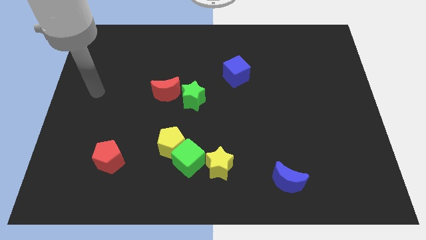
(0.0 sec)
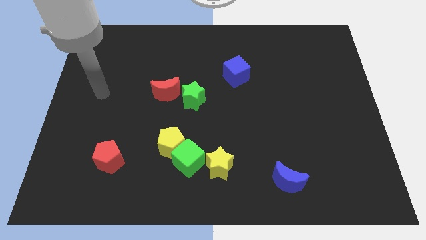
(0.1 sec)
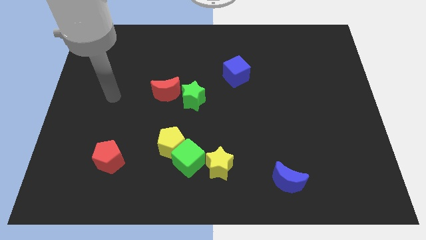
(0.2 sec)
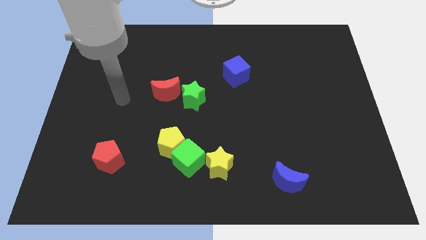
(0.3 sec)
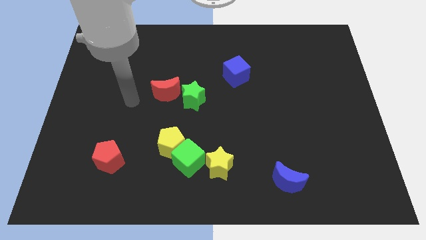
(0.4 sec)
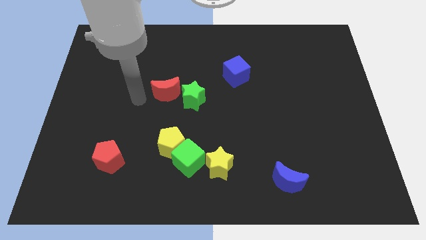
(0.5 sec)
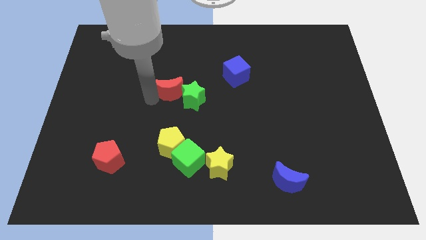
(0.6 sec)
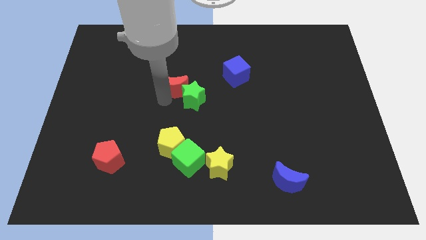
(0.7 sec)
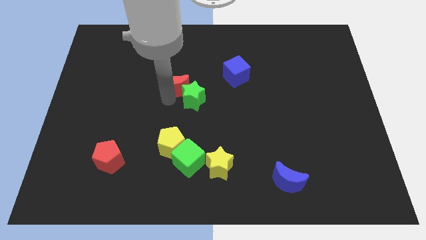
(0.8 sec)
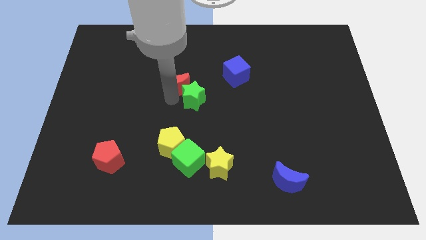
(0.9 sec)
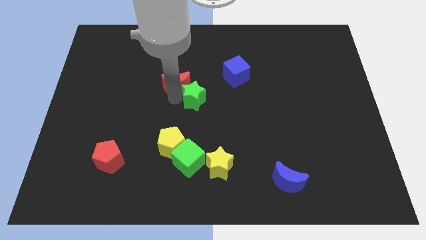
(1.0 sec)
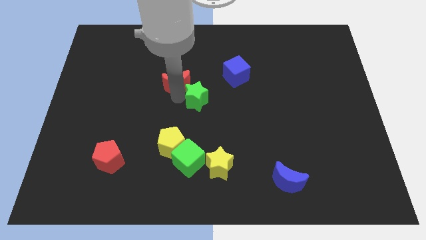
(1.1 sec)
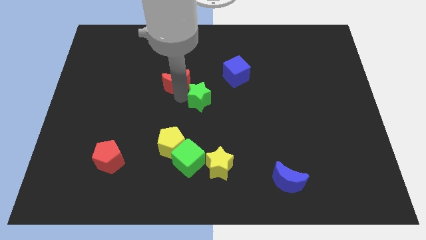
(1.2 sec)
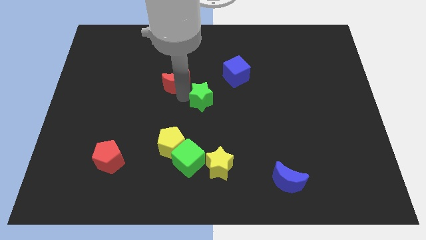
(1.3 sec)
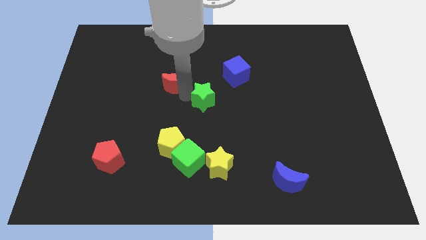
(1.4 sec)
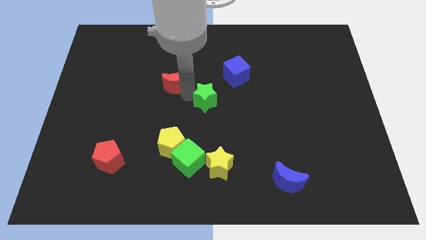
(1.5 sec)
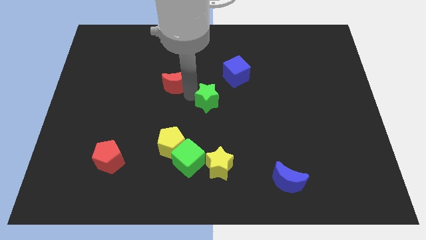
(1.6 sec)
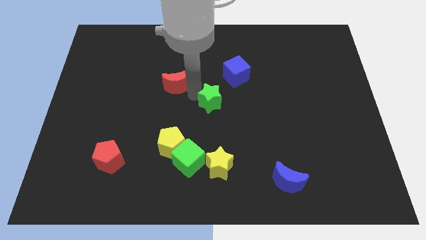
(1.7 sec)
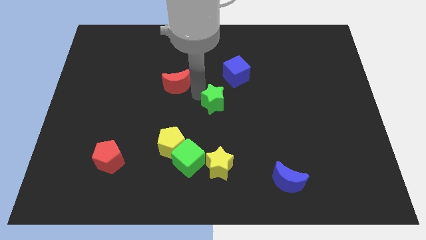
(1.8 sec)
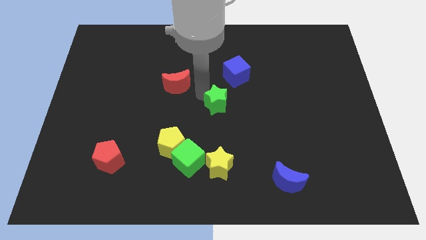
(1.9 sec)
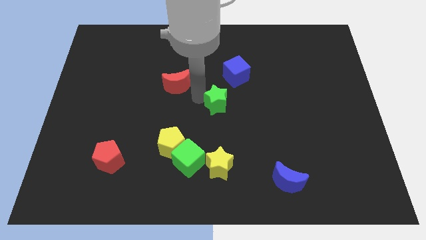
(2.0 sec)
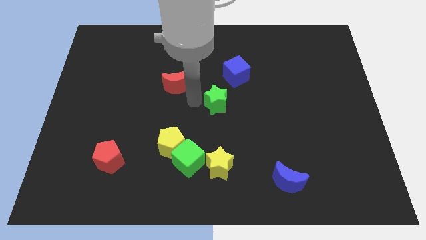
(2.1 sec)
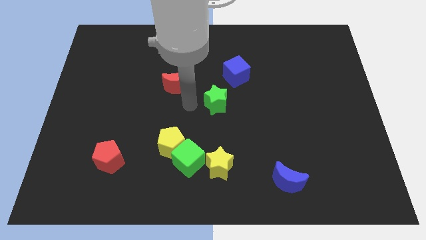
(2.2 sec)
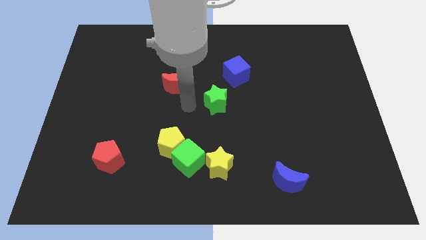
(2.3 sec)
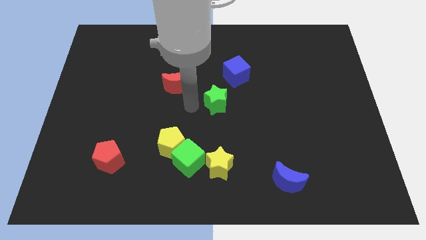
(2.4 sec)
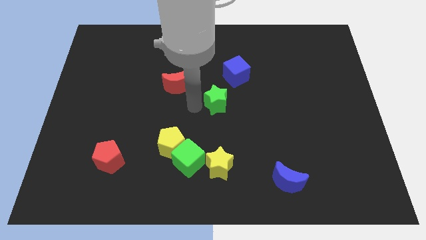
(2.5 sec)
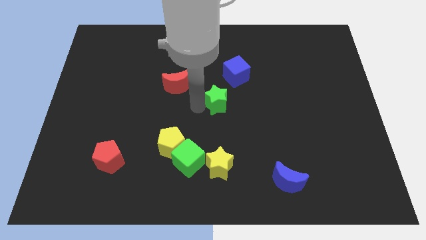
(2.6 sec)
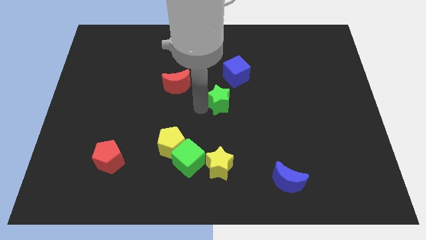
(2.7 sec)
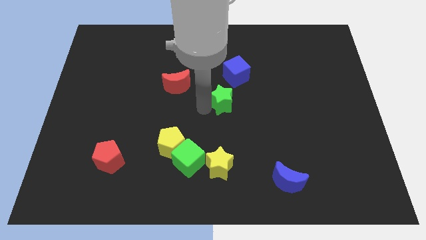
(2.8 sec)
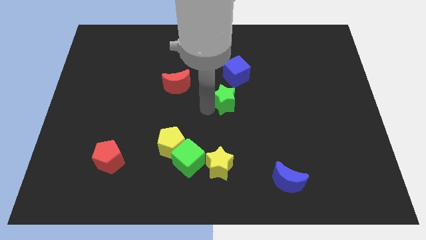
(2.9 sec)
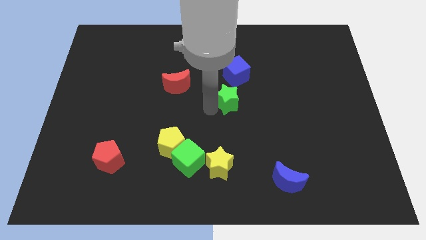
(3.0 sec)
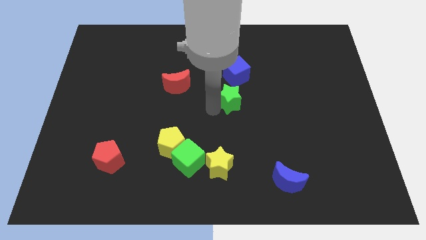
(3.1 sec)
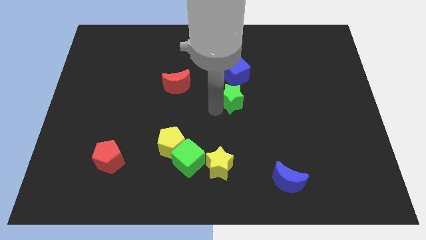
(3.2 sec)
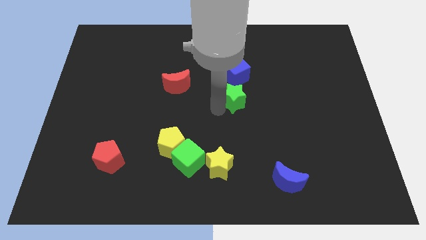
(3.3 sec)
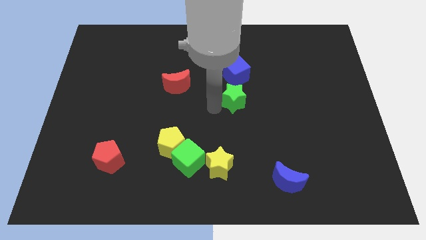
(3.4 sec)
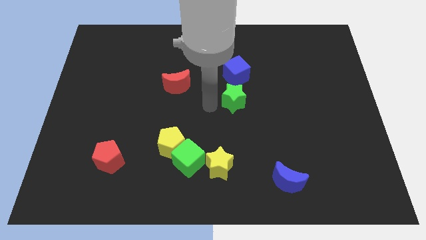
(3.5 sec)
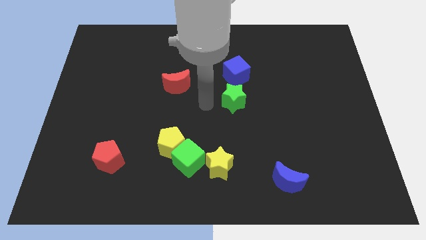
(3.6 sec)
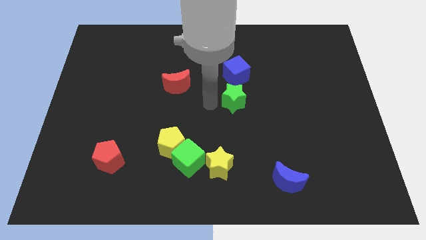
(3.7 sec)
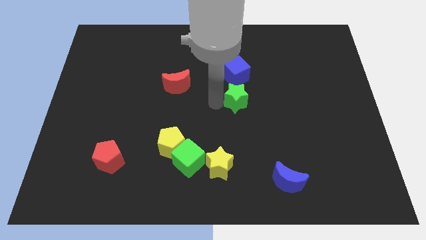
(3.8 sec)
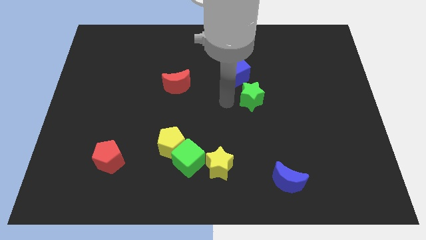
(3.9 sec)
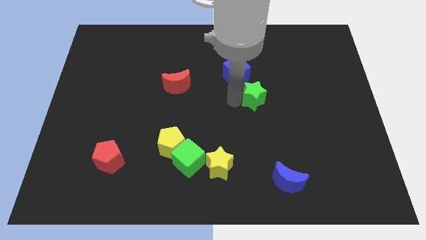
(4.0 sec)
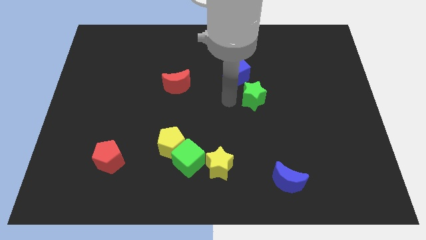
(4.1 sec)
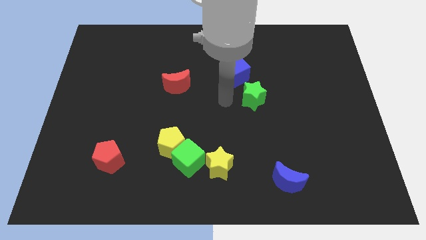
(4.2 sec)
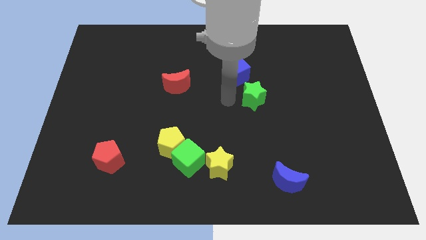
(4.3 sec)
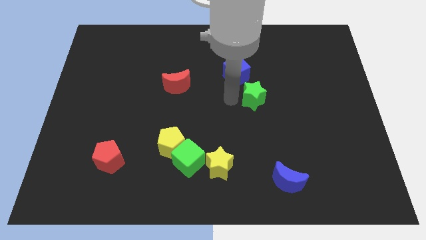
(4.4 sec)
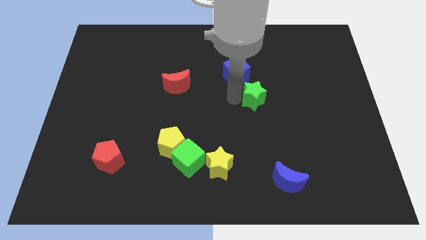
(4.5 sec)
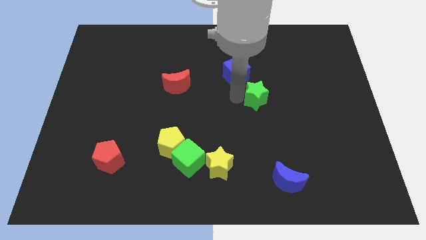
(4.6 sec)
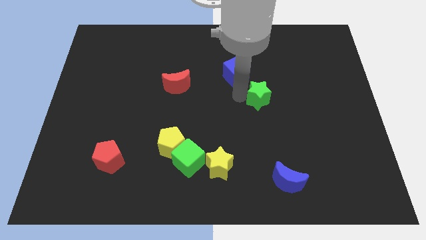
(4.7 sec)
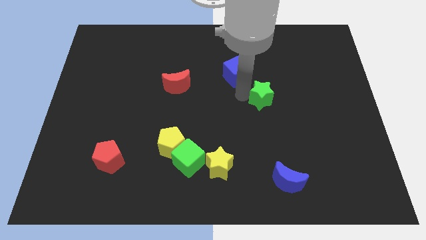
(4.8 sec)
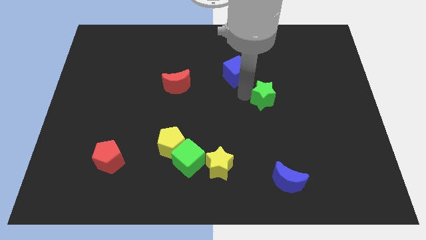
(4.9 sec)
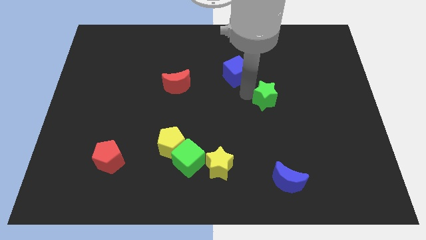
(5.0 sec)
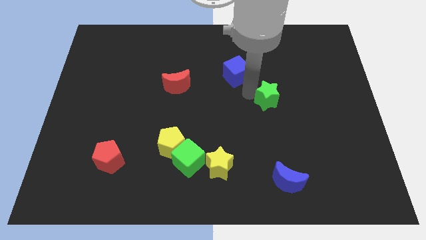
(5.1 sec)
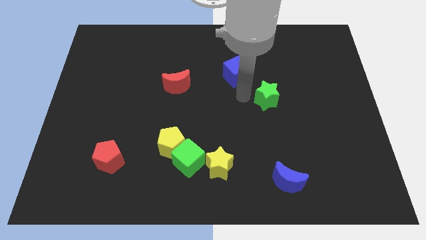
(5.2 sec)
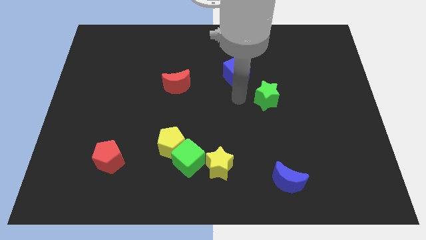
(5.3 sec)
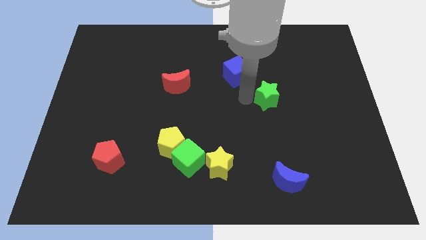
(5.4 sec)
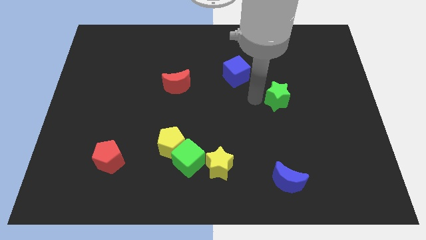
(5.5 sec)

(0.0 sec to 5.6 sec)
move the green star to the right

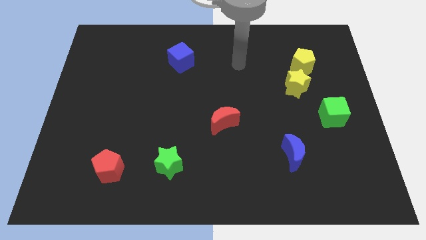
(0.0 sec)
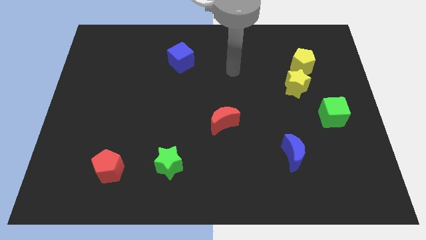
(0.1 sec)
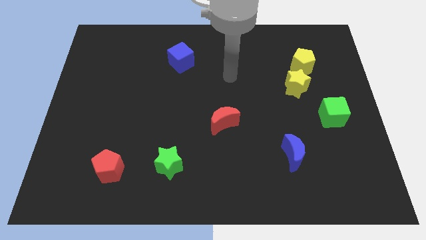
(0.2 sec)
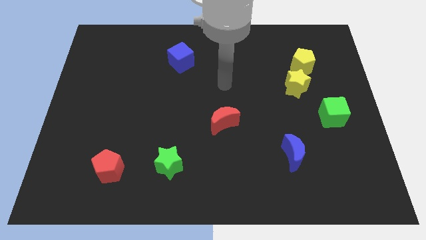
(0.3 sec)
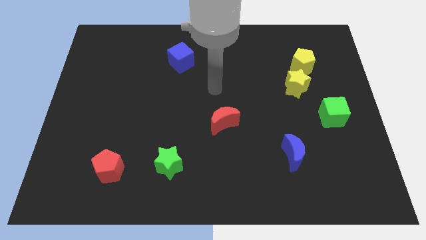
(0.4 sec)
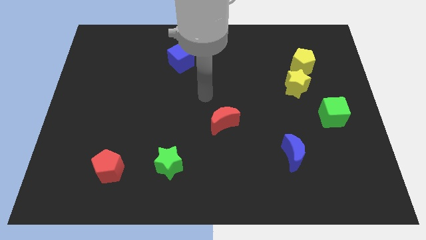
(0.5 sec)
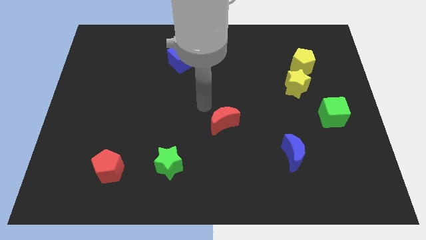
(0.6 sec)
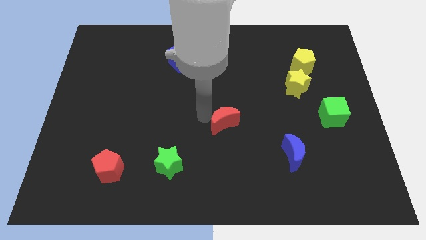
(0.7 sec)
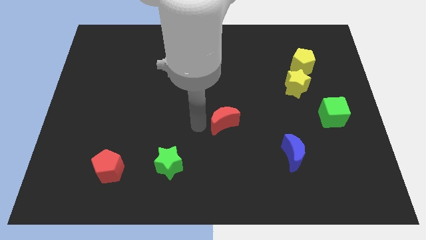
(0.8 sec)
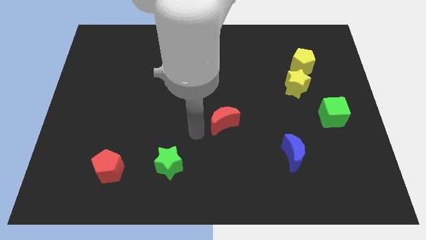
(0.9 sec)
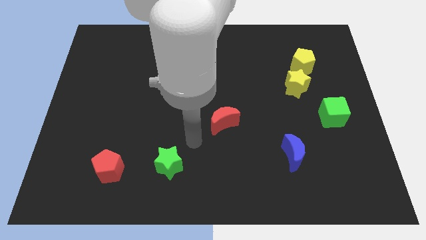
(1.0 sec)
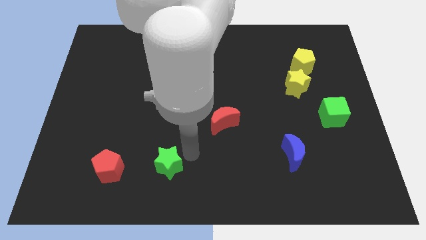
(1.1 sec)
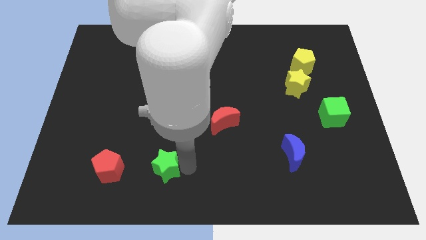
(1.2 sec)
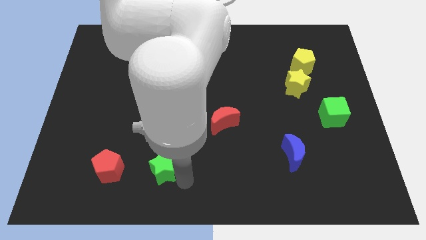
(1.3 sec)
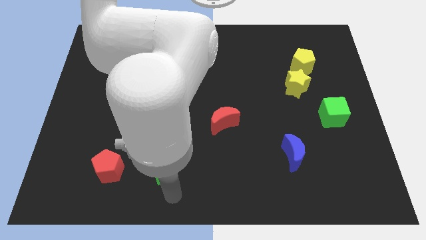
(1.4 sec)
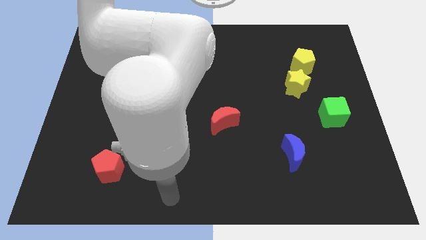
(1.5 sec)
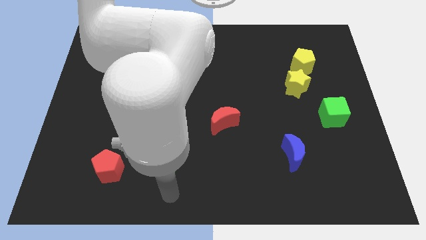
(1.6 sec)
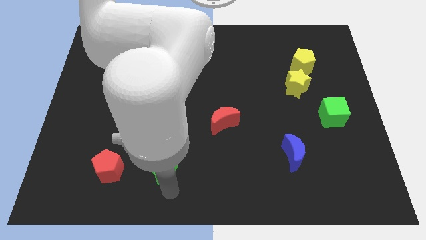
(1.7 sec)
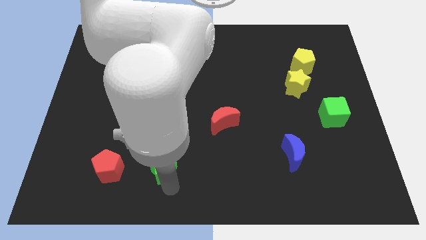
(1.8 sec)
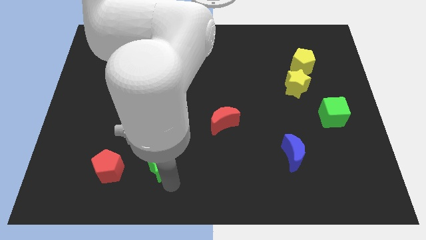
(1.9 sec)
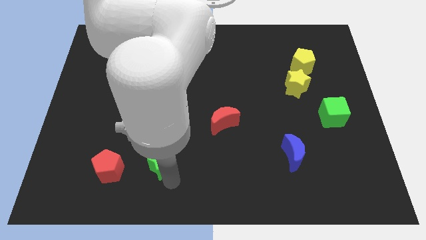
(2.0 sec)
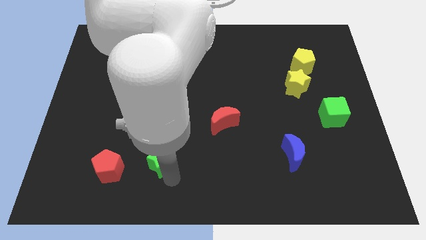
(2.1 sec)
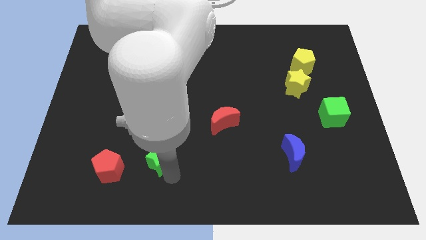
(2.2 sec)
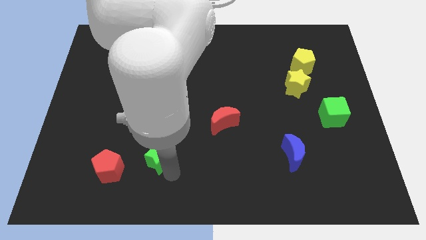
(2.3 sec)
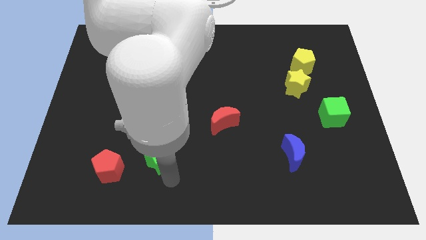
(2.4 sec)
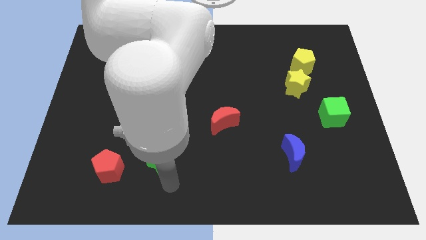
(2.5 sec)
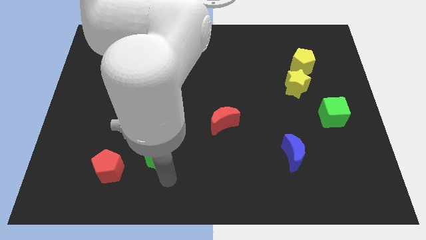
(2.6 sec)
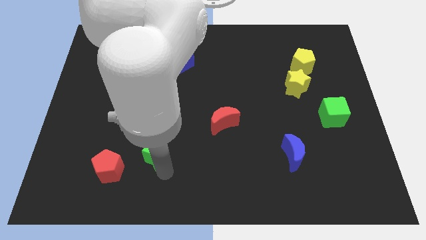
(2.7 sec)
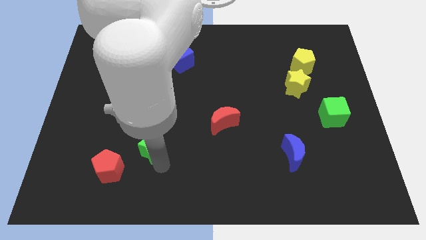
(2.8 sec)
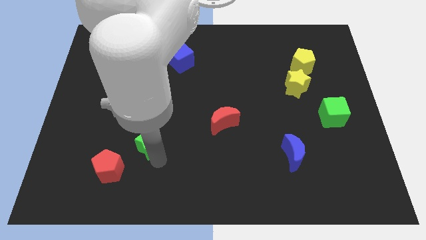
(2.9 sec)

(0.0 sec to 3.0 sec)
slide the green star a bit upwards and then to the left
